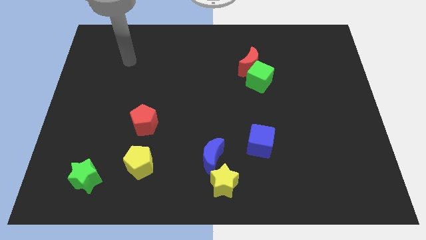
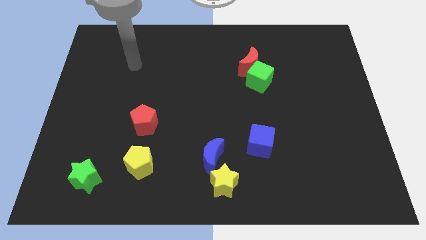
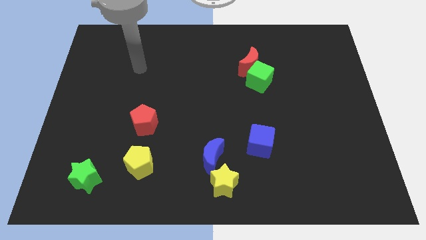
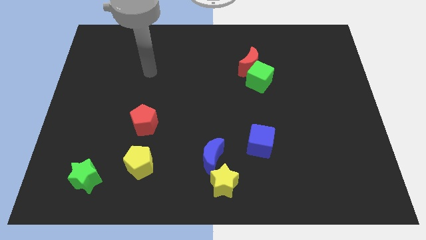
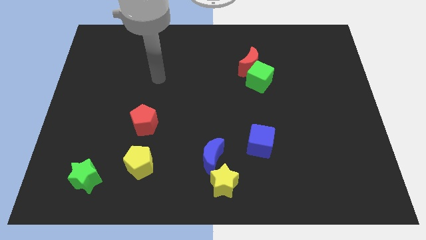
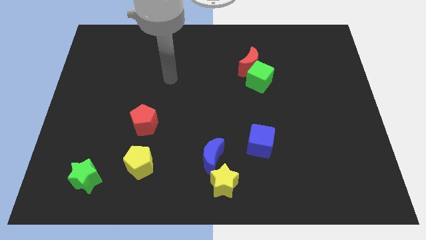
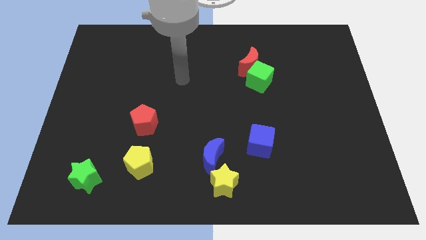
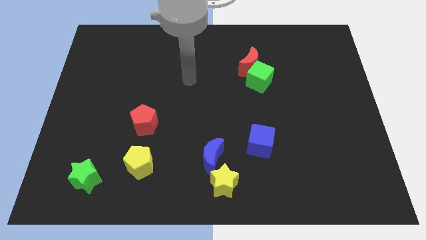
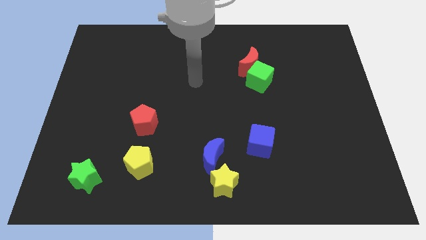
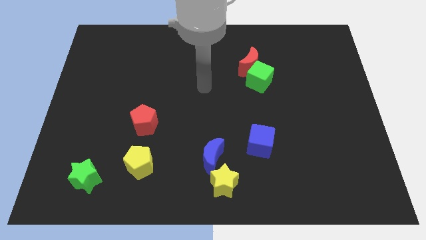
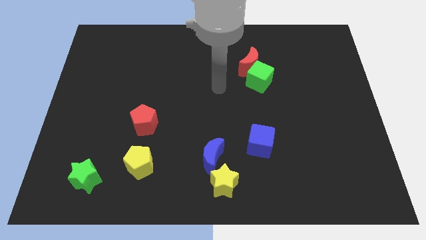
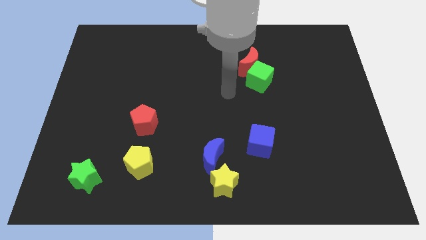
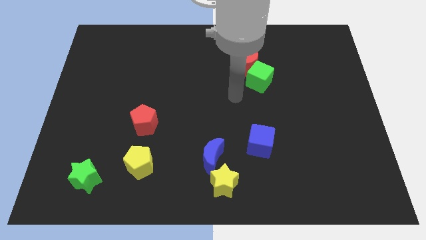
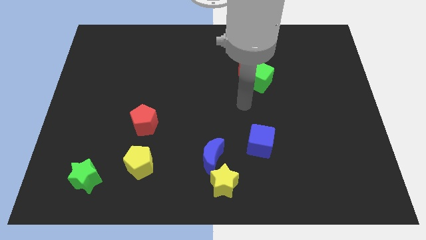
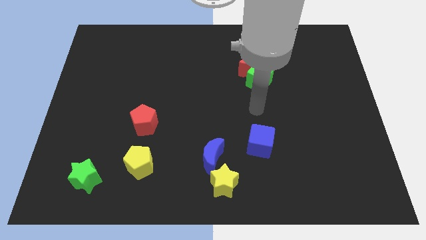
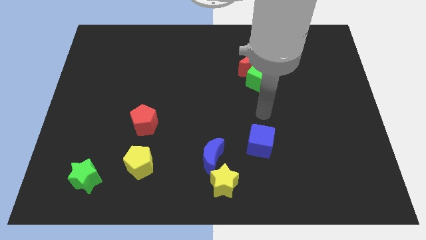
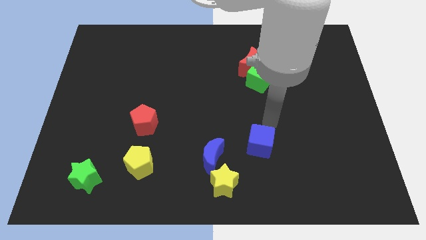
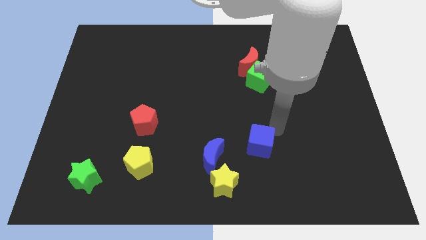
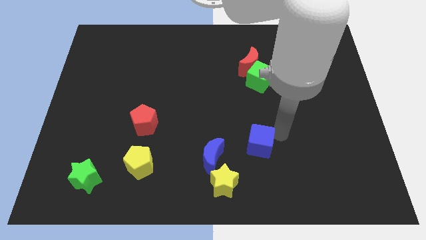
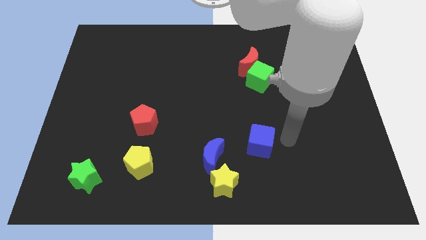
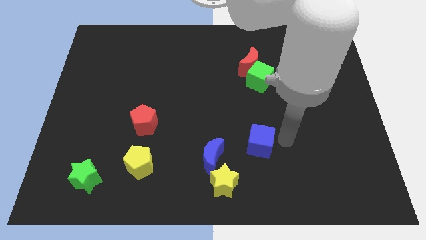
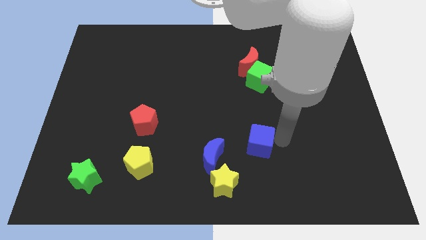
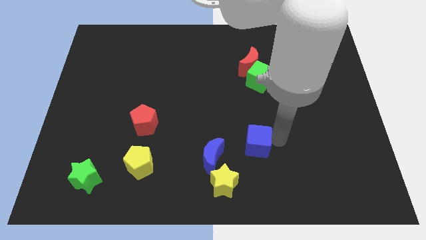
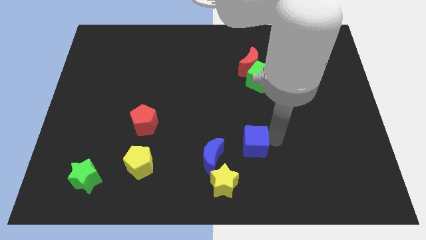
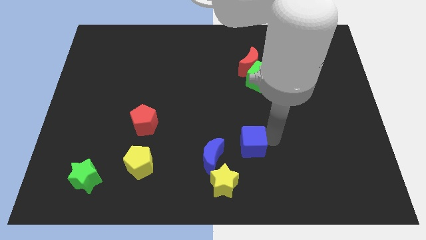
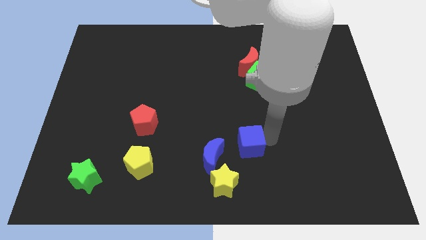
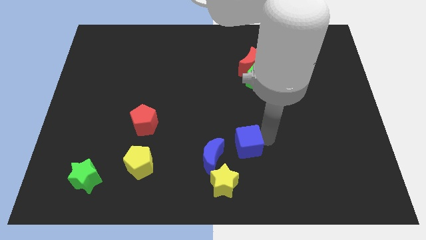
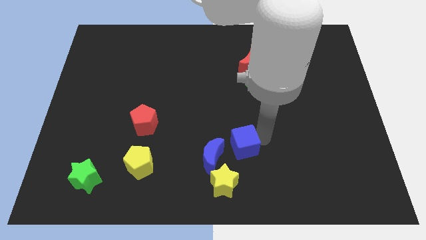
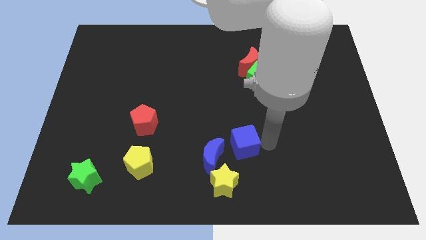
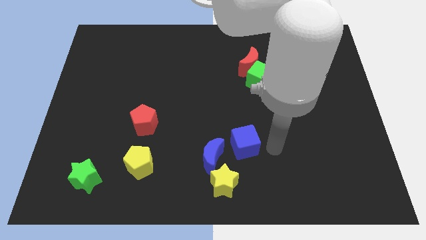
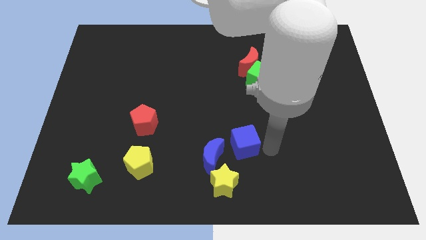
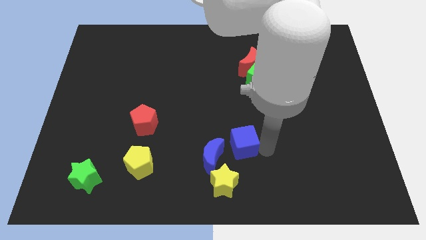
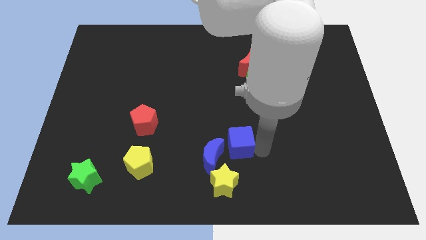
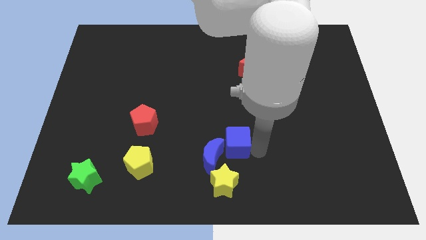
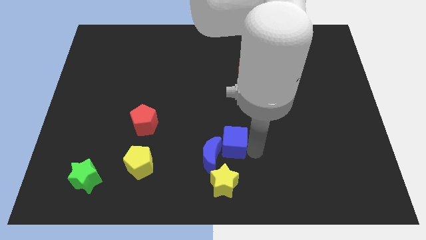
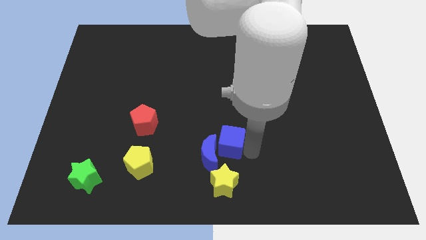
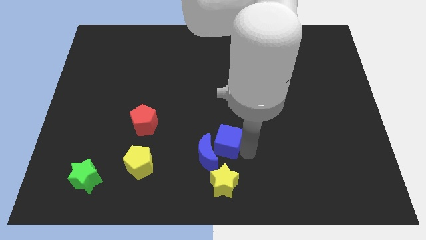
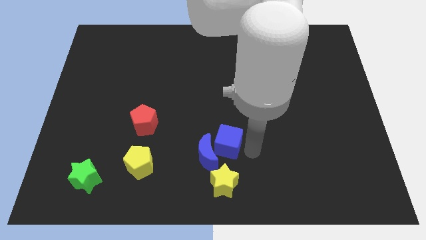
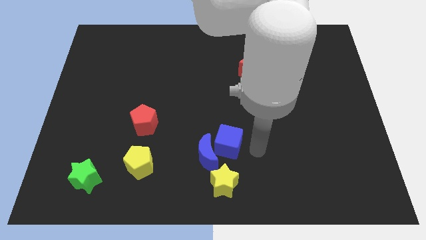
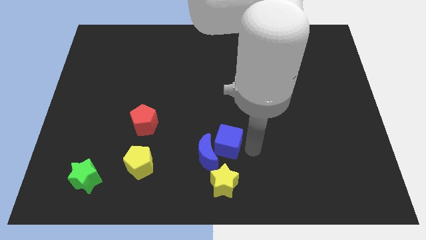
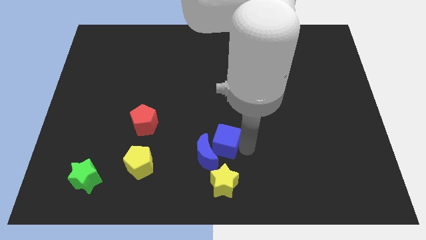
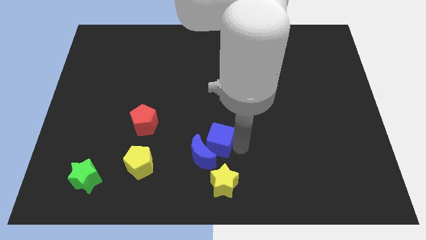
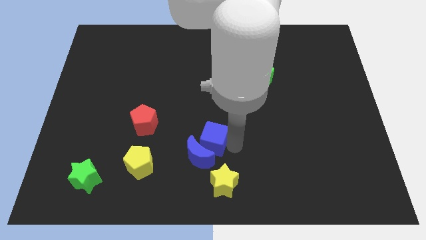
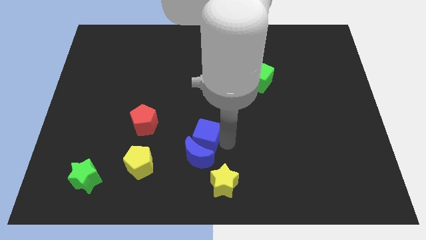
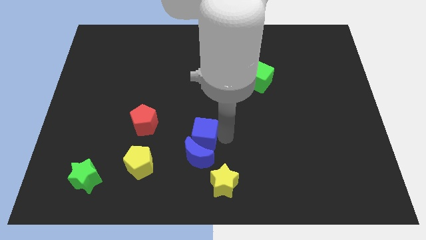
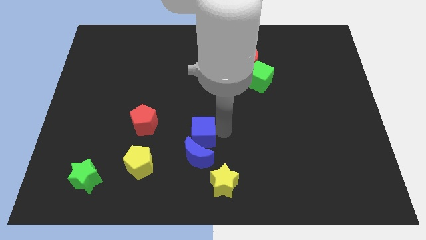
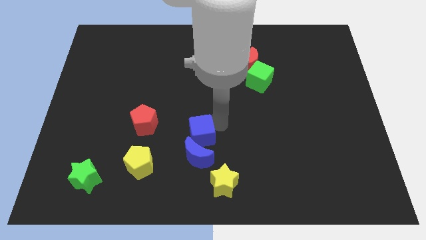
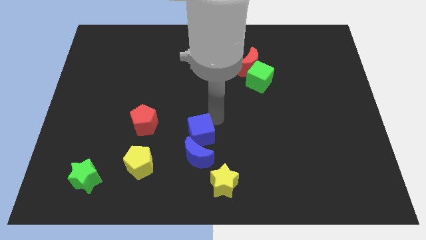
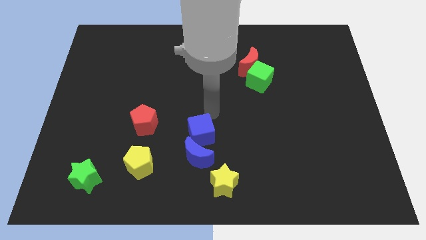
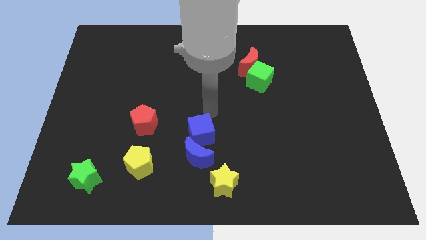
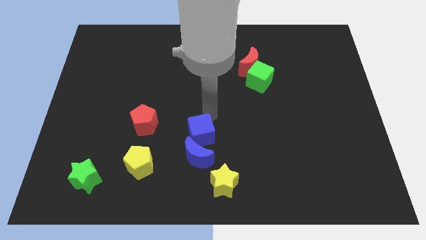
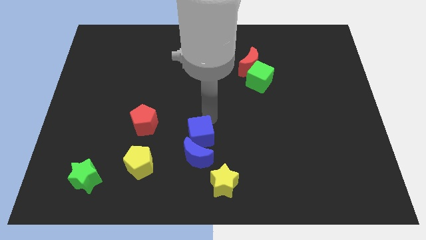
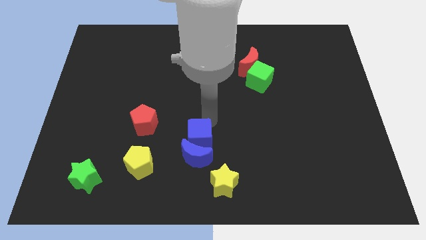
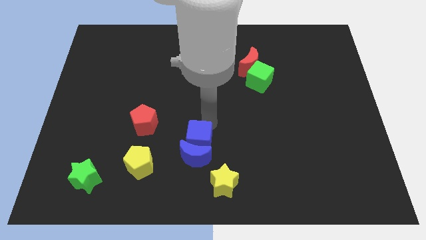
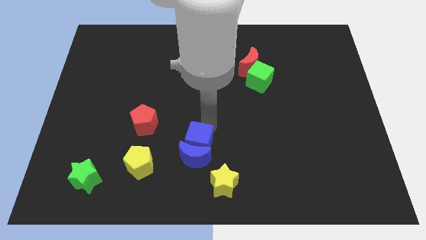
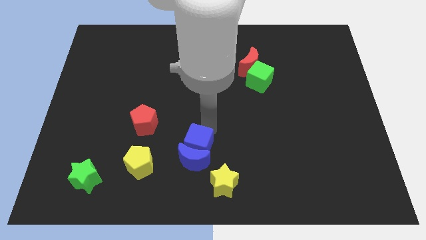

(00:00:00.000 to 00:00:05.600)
move the blue cube to the right side of the yellow pentagon

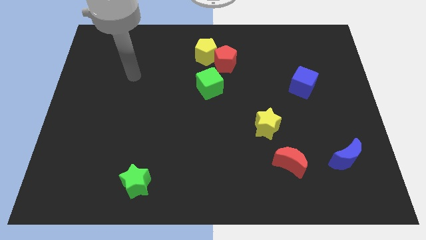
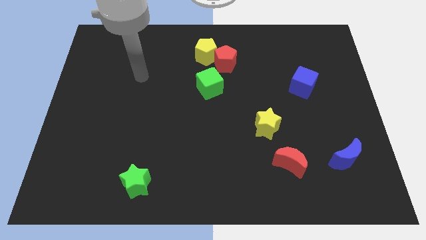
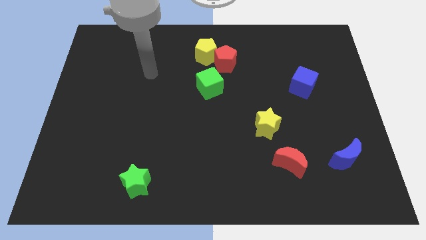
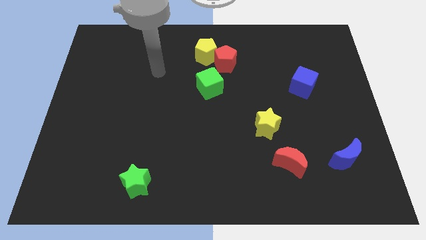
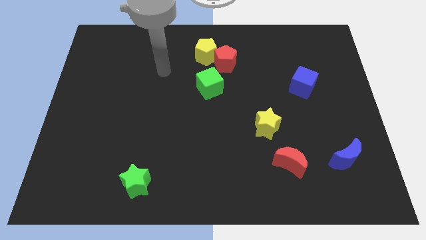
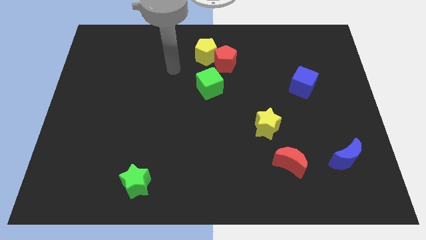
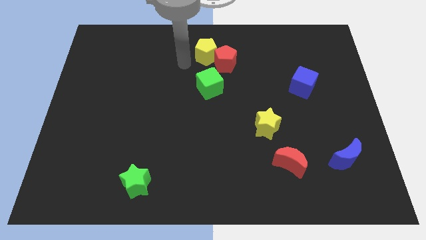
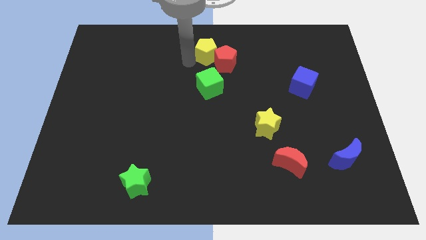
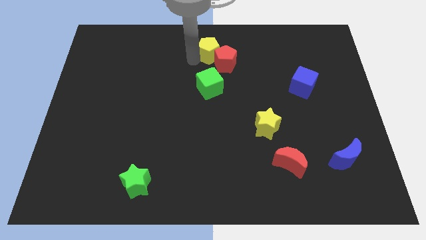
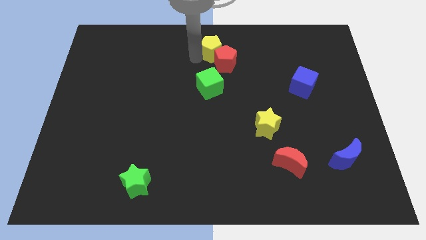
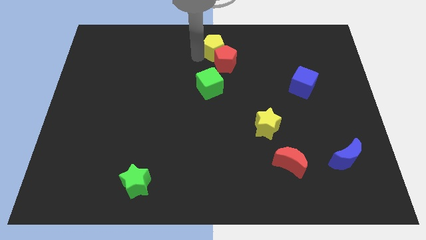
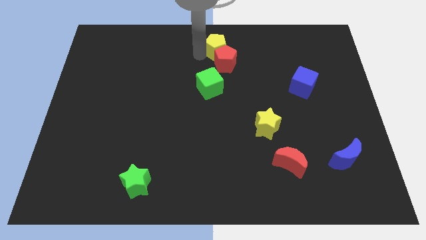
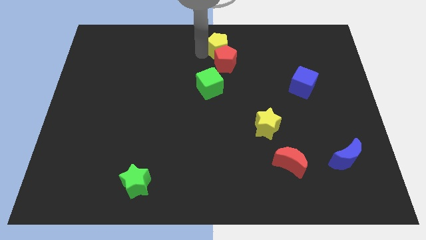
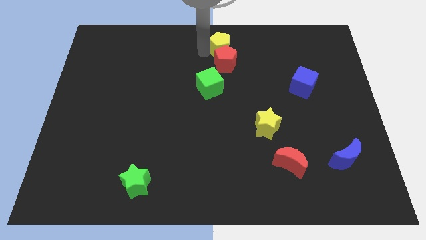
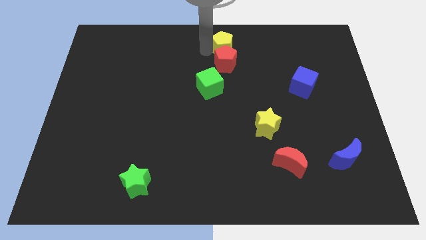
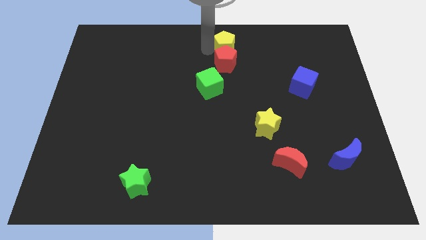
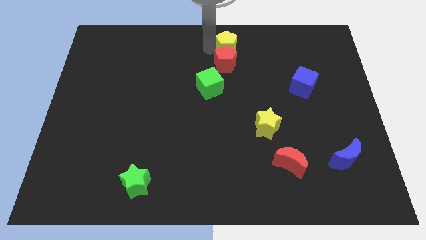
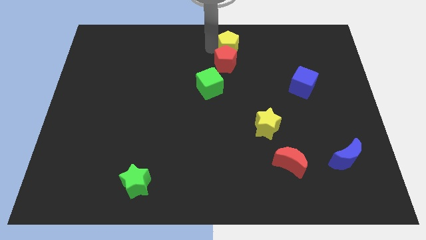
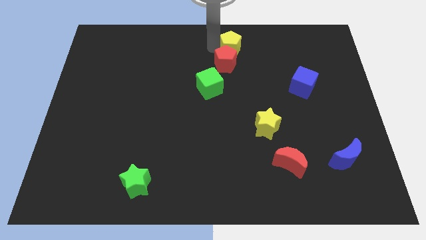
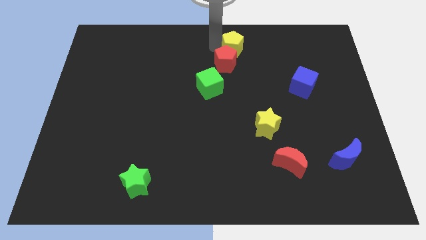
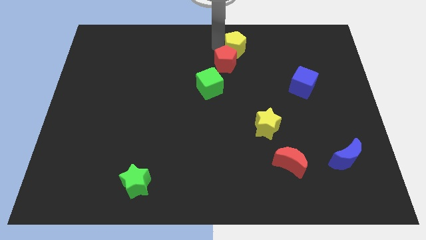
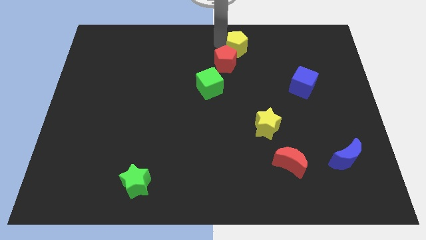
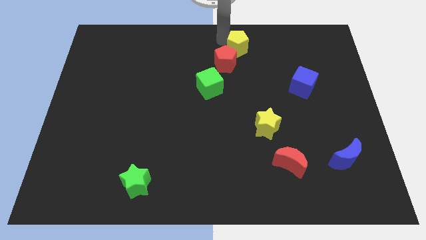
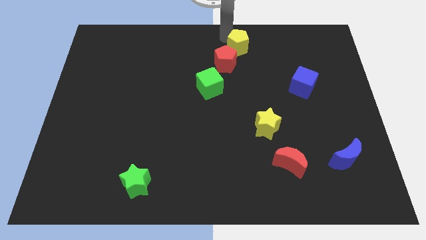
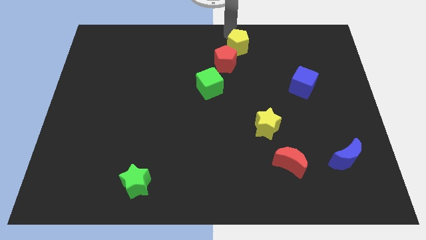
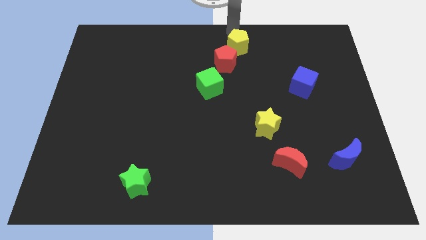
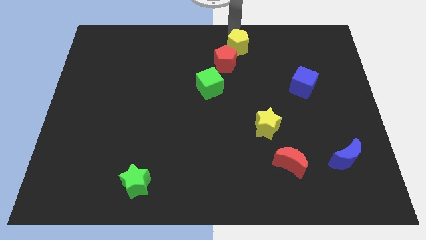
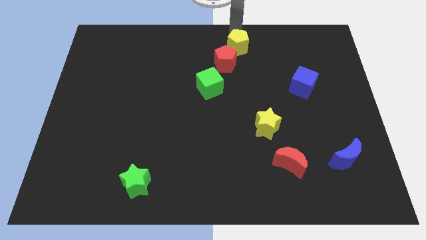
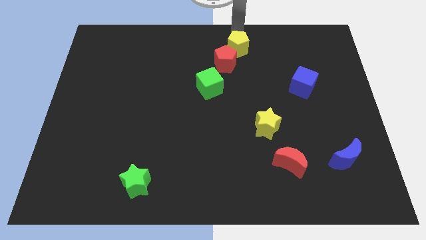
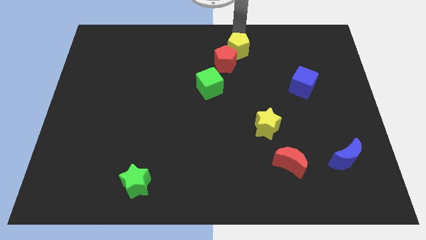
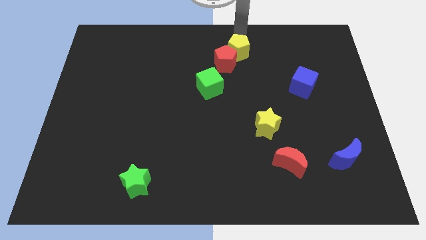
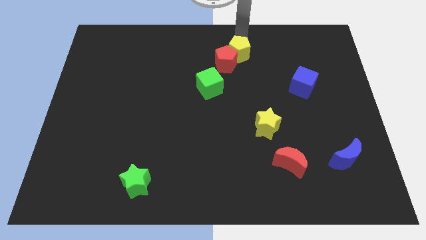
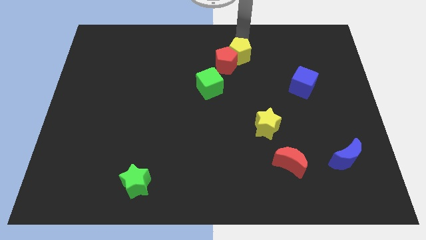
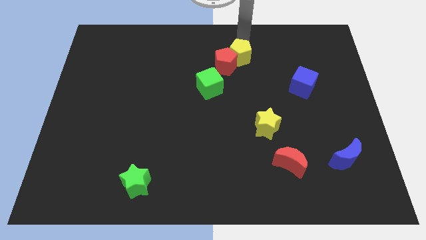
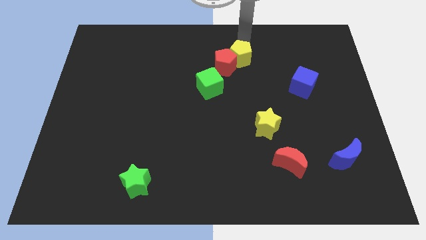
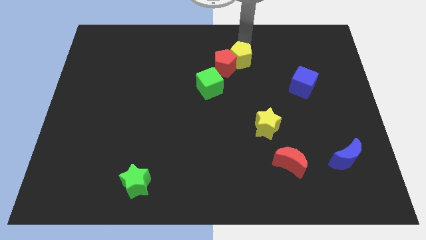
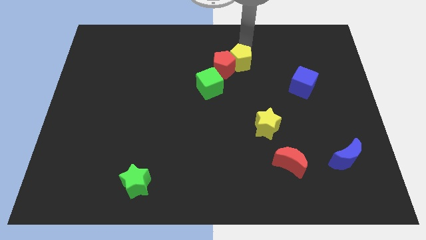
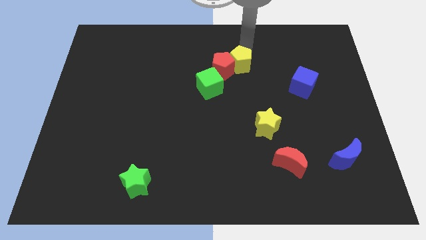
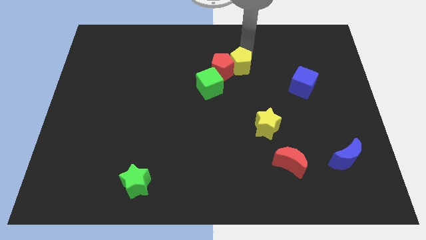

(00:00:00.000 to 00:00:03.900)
slide the yellow pentagon diagonally down and to the right of the red pentagon
